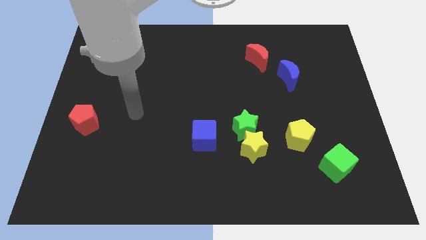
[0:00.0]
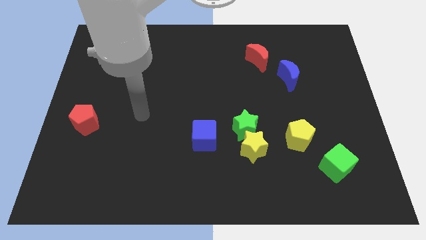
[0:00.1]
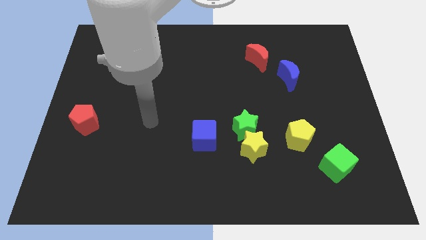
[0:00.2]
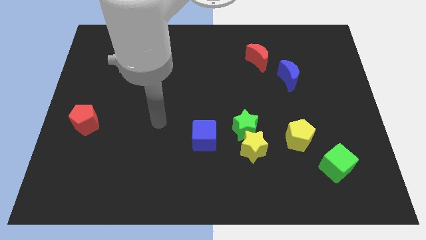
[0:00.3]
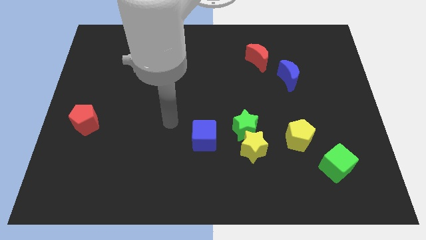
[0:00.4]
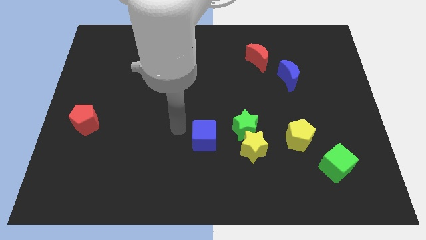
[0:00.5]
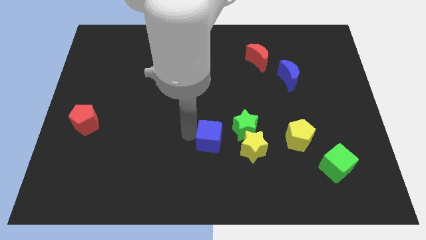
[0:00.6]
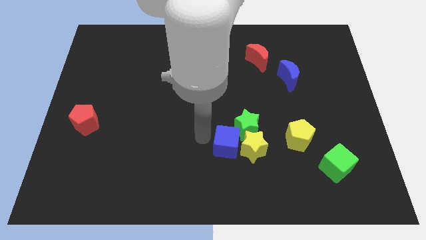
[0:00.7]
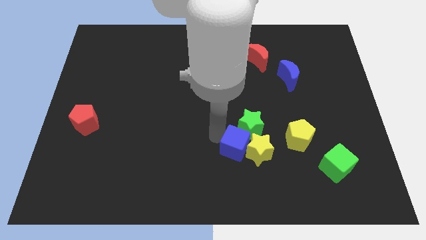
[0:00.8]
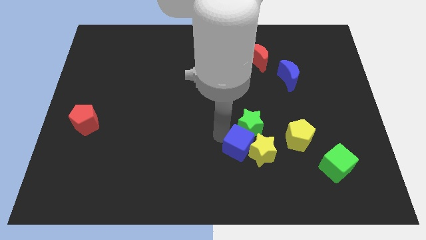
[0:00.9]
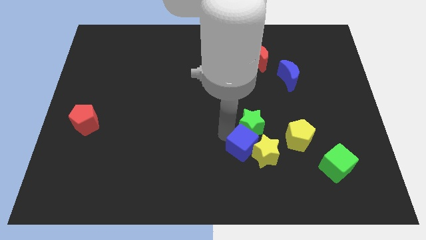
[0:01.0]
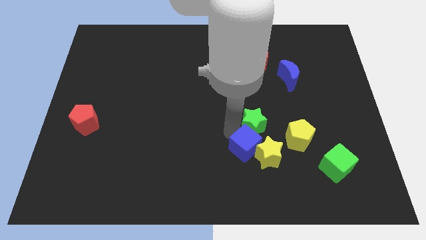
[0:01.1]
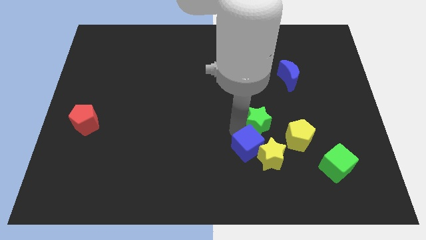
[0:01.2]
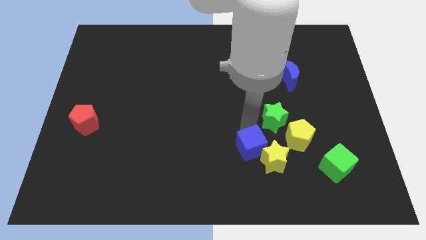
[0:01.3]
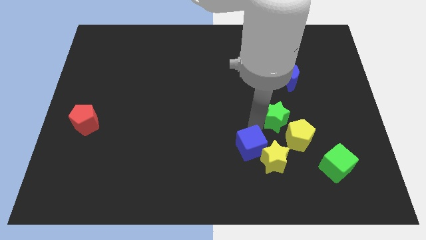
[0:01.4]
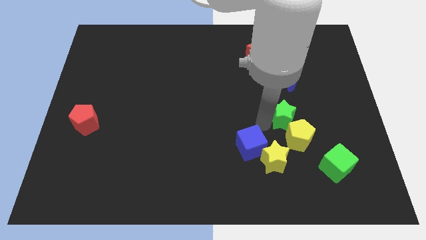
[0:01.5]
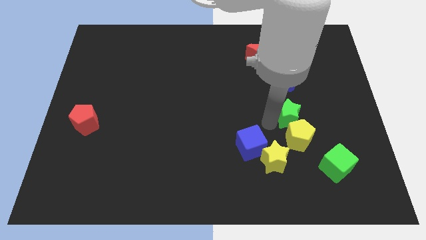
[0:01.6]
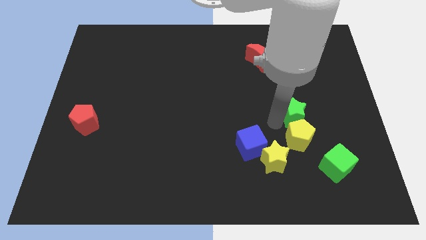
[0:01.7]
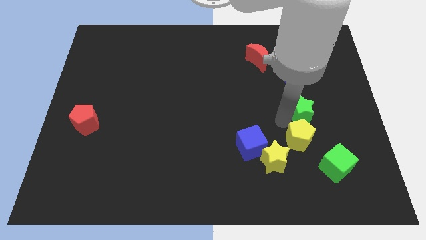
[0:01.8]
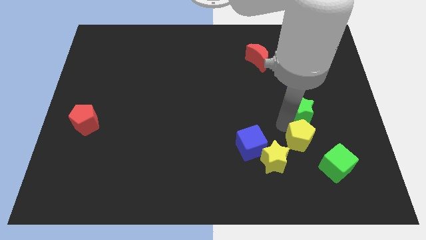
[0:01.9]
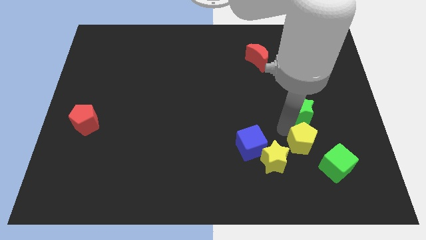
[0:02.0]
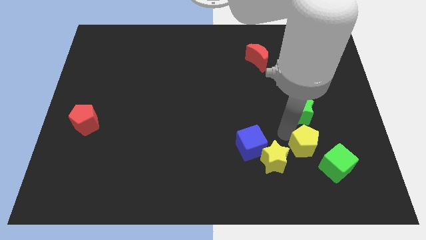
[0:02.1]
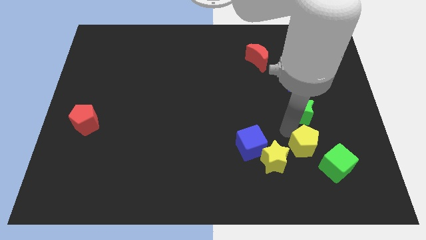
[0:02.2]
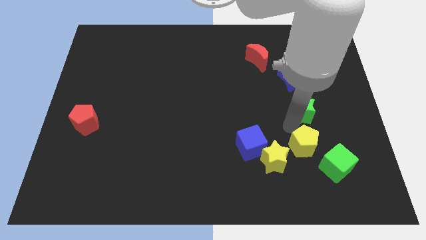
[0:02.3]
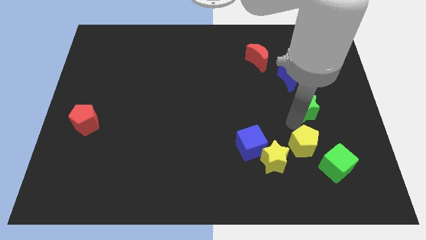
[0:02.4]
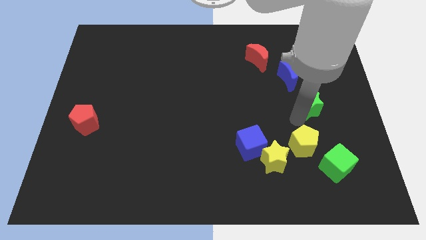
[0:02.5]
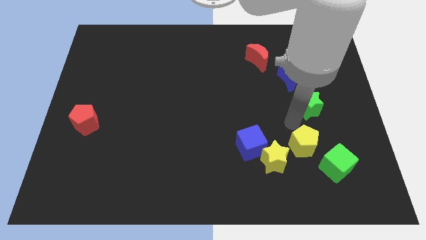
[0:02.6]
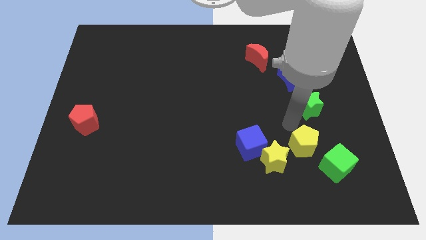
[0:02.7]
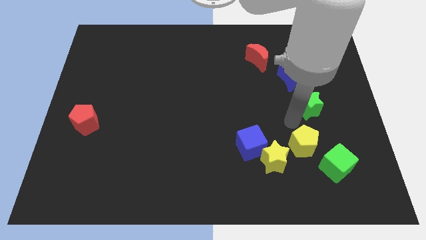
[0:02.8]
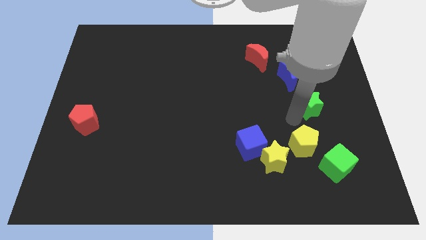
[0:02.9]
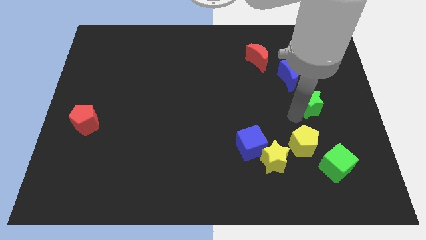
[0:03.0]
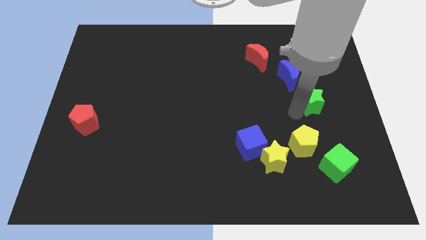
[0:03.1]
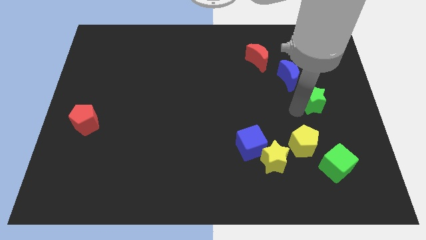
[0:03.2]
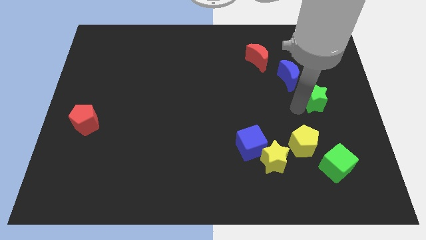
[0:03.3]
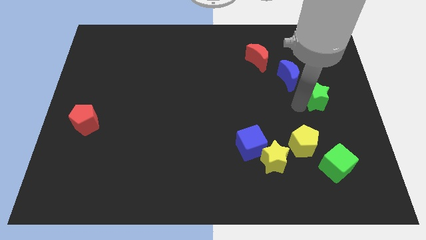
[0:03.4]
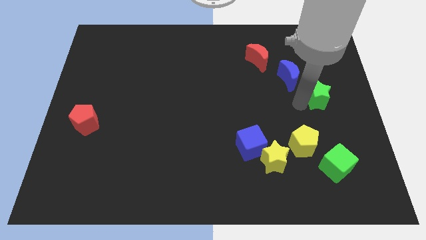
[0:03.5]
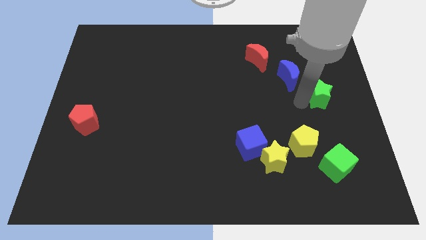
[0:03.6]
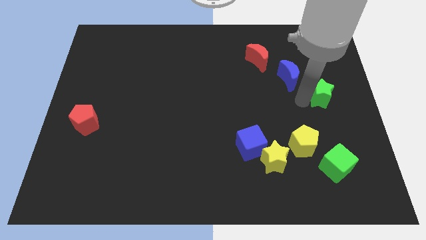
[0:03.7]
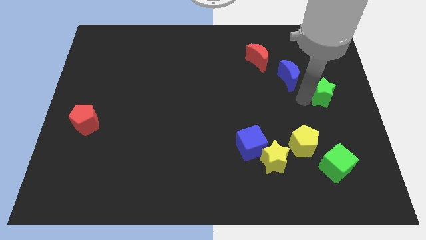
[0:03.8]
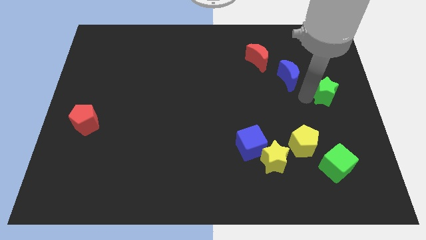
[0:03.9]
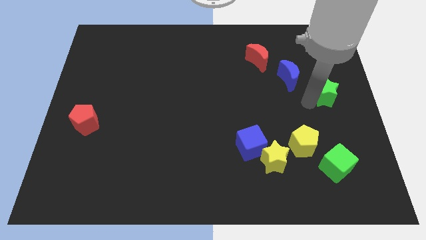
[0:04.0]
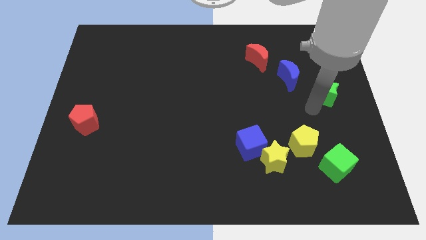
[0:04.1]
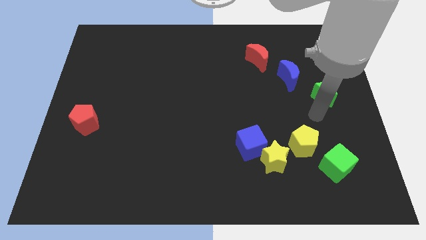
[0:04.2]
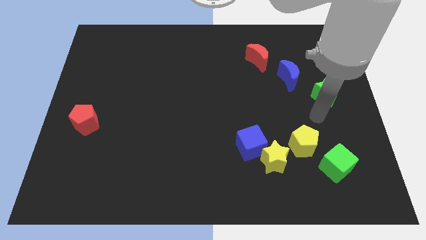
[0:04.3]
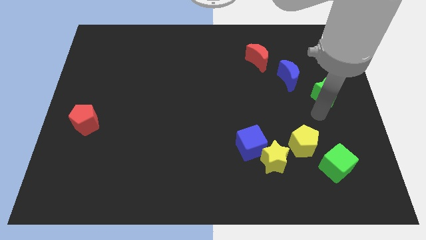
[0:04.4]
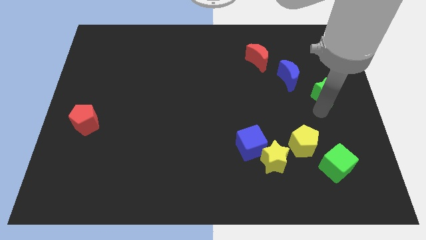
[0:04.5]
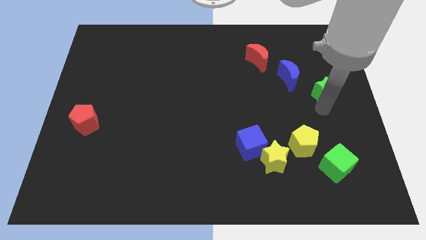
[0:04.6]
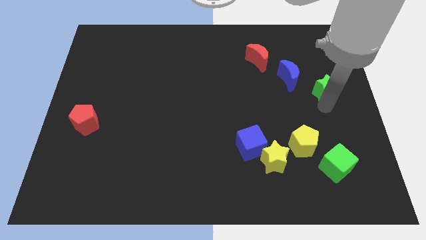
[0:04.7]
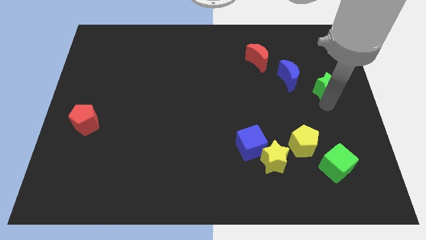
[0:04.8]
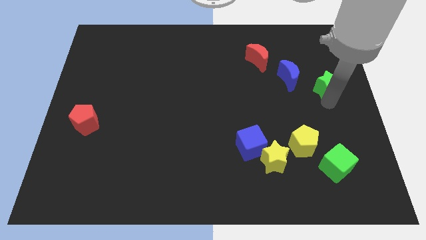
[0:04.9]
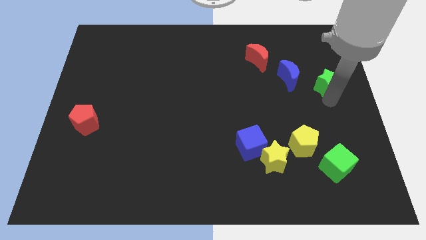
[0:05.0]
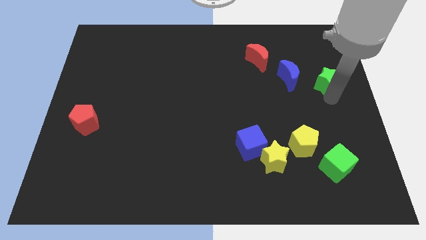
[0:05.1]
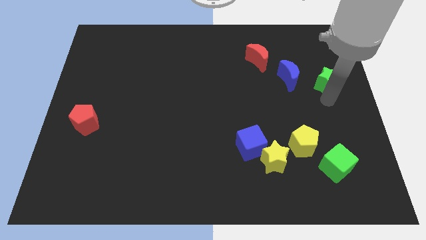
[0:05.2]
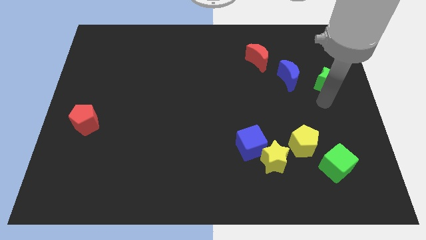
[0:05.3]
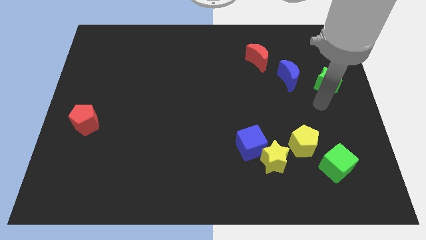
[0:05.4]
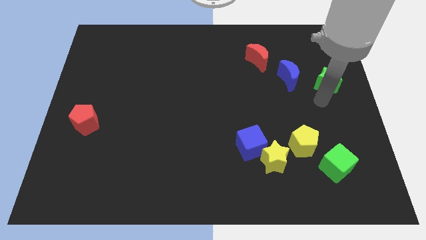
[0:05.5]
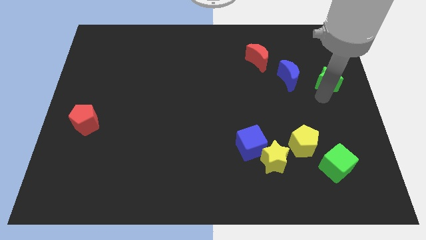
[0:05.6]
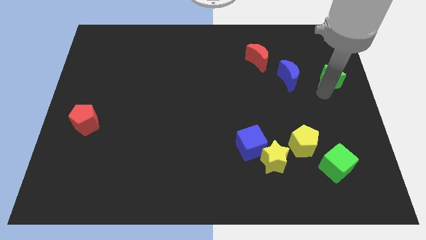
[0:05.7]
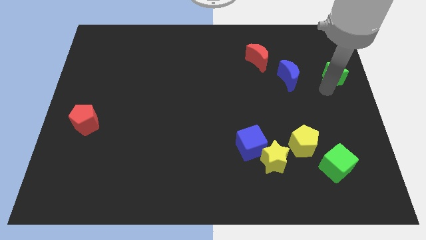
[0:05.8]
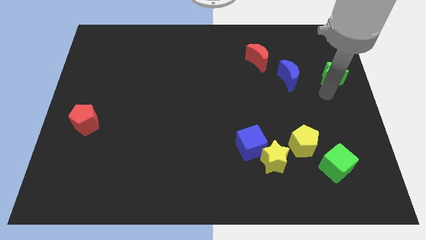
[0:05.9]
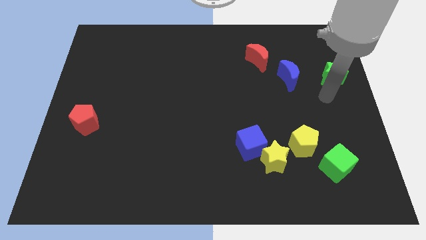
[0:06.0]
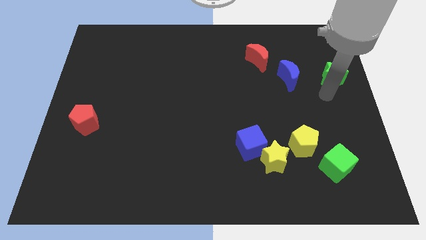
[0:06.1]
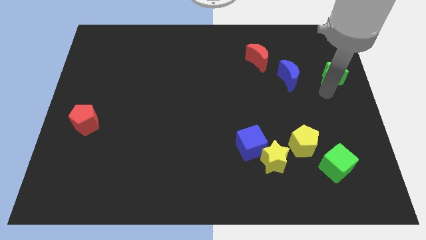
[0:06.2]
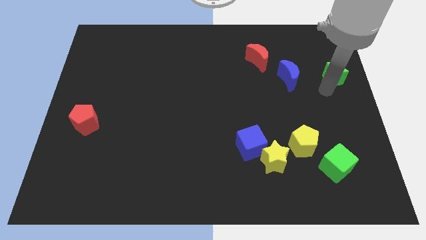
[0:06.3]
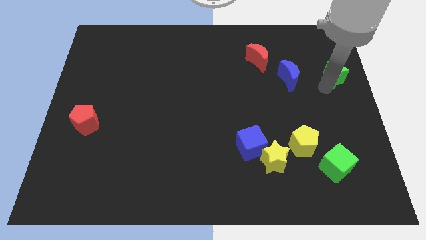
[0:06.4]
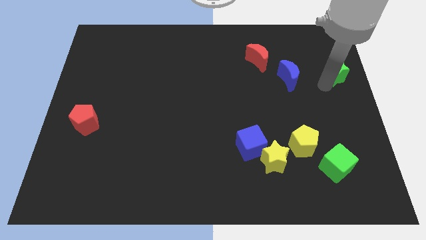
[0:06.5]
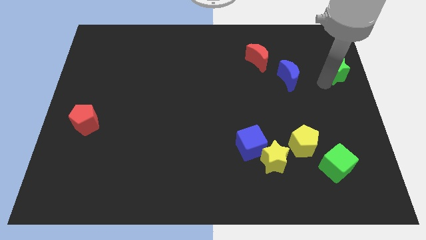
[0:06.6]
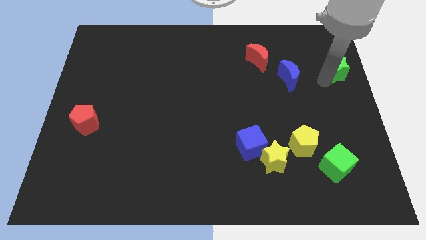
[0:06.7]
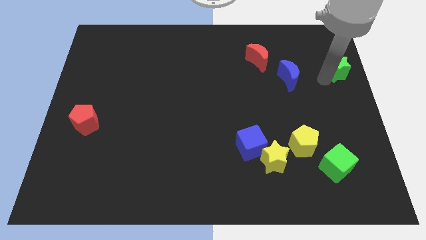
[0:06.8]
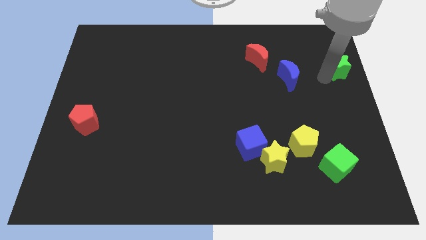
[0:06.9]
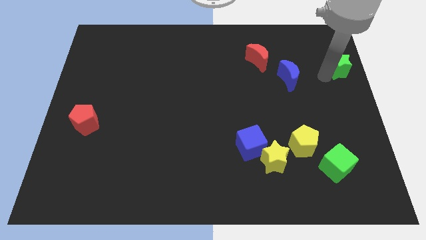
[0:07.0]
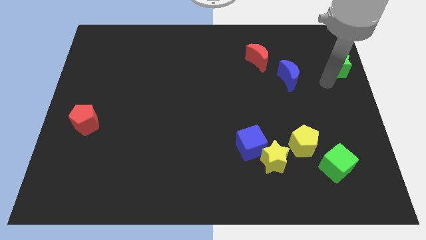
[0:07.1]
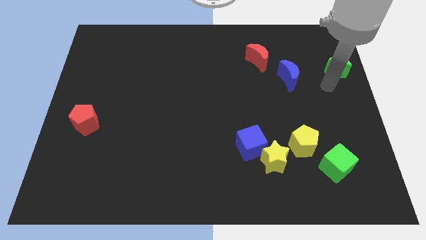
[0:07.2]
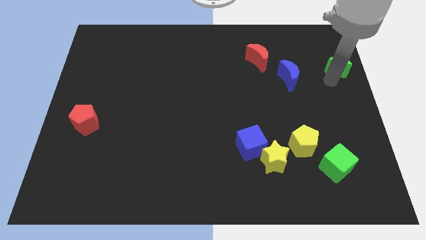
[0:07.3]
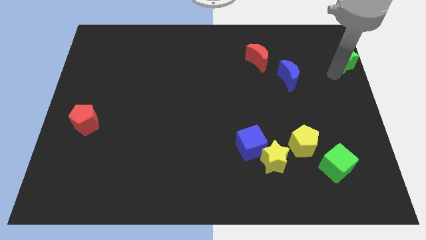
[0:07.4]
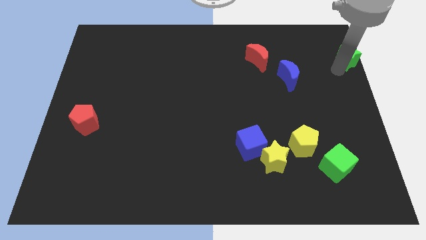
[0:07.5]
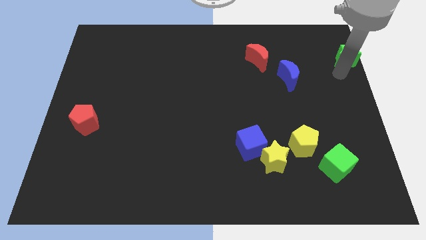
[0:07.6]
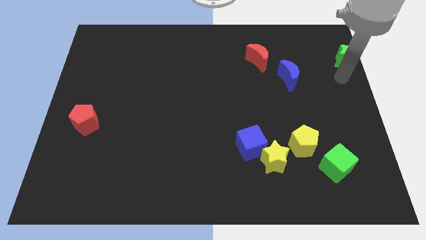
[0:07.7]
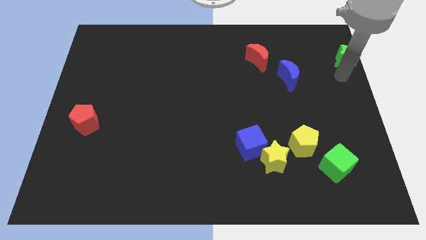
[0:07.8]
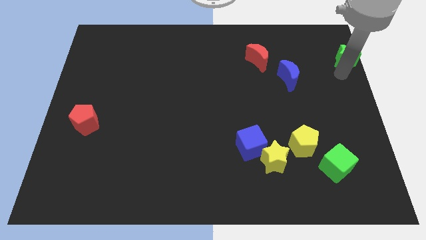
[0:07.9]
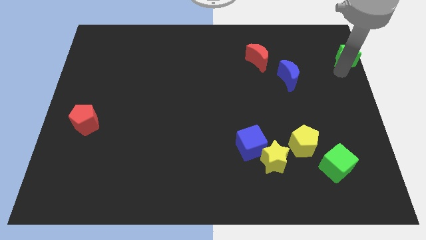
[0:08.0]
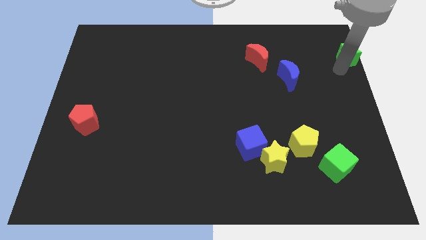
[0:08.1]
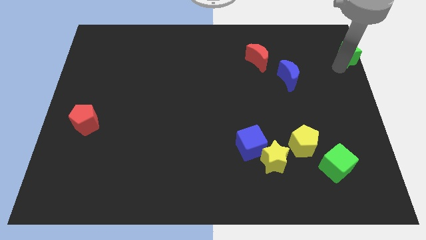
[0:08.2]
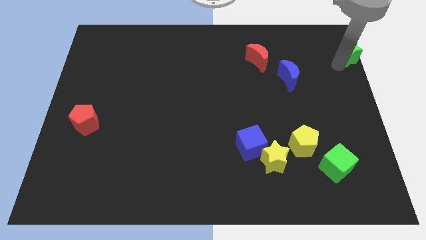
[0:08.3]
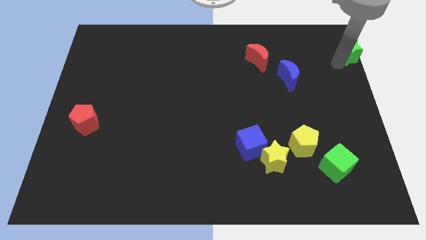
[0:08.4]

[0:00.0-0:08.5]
push the green star to the upper right corner
